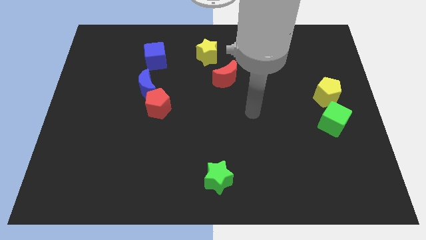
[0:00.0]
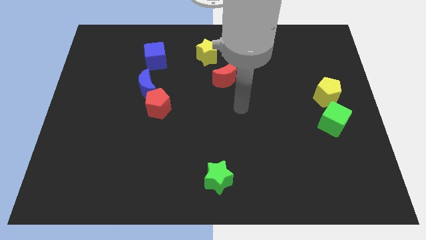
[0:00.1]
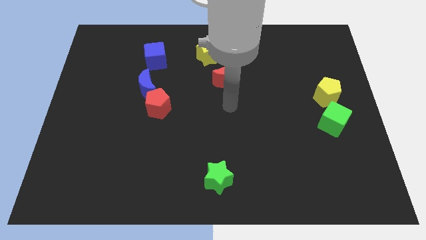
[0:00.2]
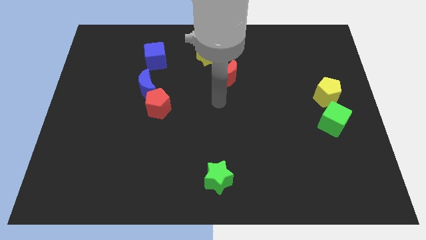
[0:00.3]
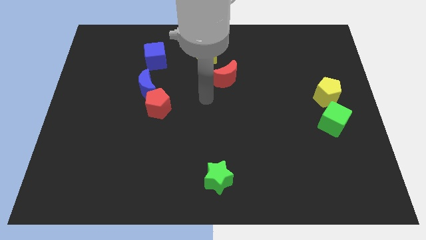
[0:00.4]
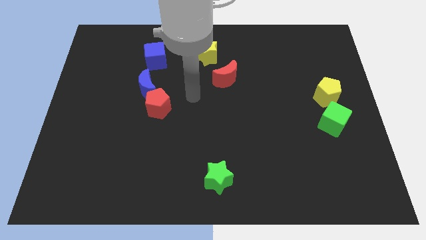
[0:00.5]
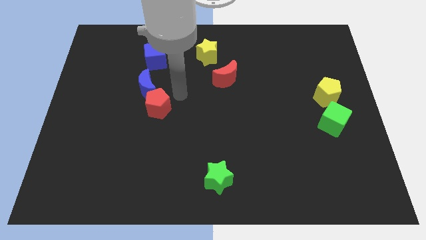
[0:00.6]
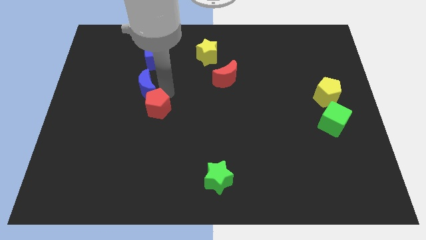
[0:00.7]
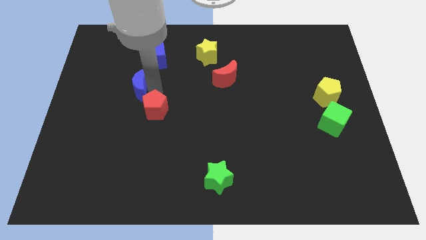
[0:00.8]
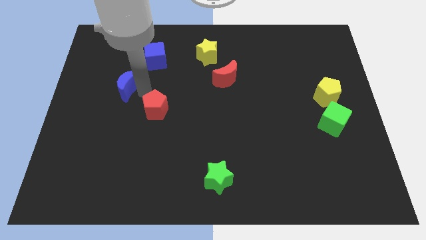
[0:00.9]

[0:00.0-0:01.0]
separate the red pentagon from the blue moon

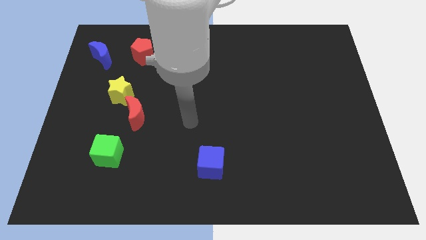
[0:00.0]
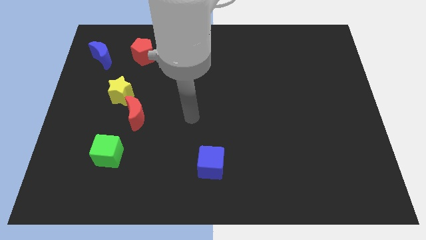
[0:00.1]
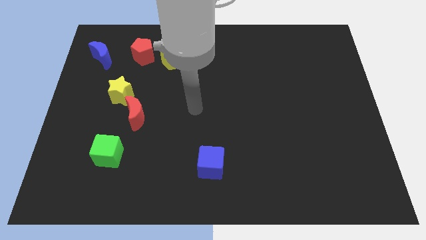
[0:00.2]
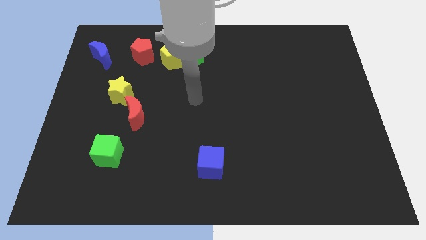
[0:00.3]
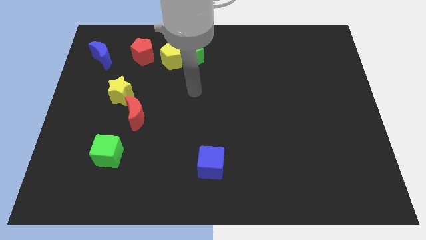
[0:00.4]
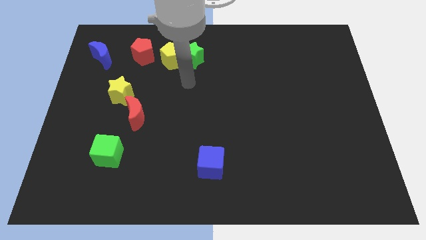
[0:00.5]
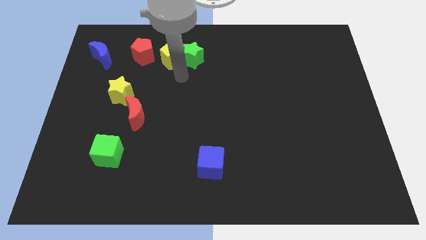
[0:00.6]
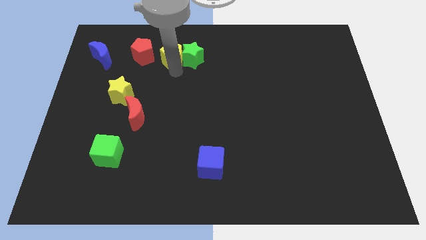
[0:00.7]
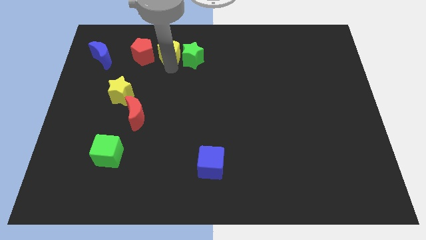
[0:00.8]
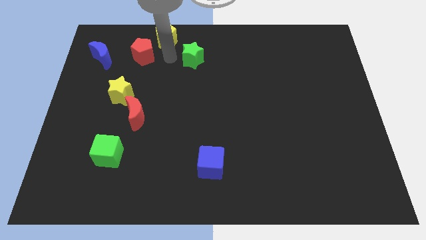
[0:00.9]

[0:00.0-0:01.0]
move the green star away from the yellow pentagon

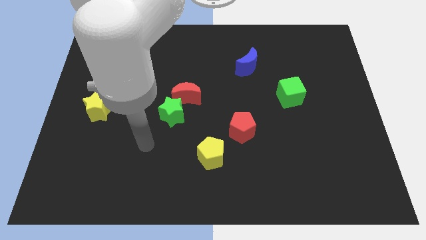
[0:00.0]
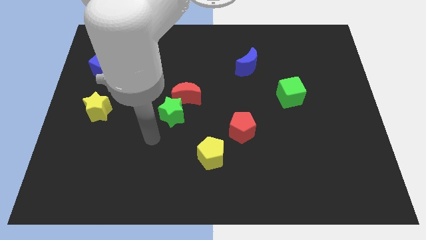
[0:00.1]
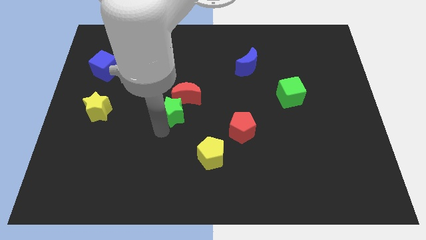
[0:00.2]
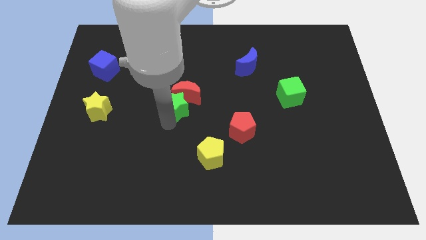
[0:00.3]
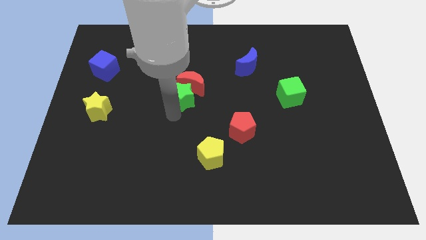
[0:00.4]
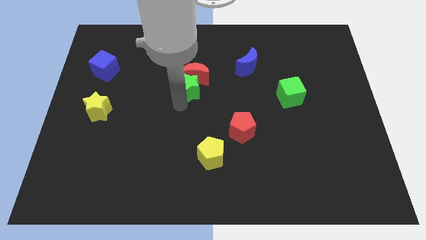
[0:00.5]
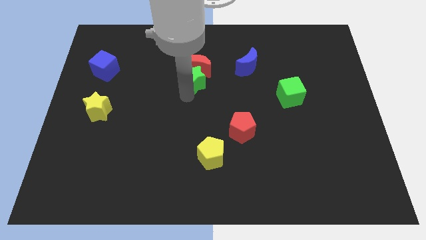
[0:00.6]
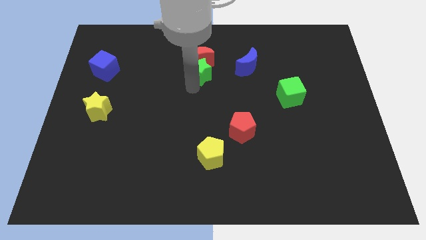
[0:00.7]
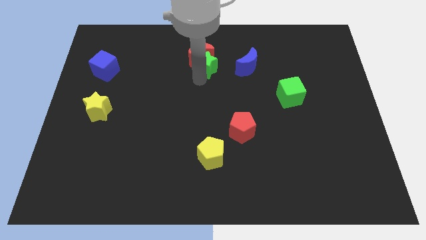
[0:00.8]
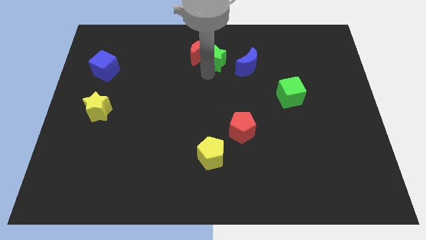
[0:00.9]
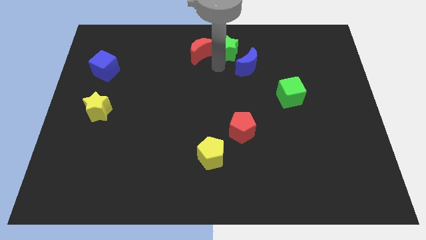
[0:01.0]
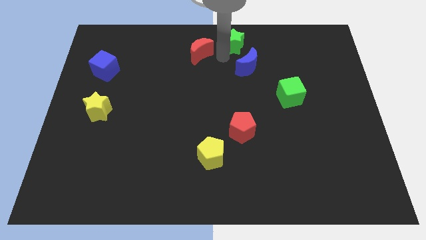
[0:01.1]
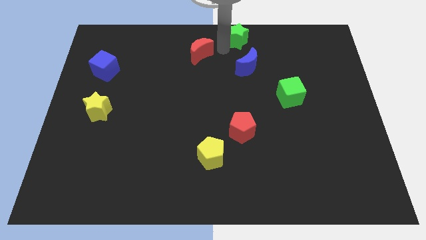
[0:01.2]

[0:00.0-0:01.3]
pull the red moon apart from the green star

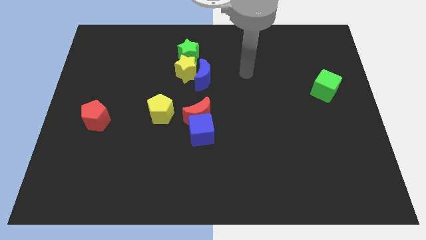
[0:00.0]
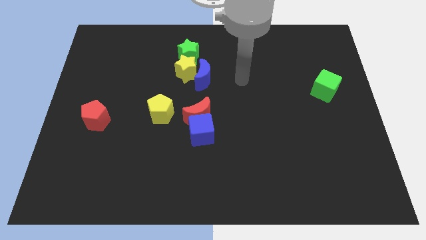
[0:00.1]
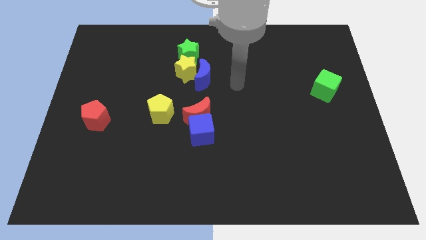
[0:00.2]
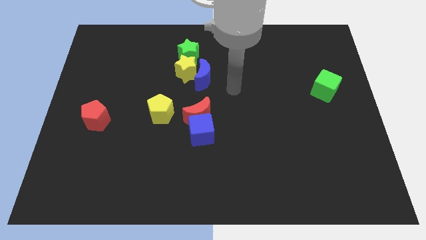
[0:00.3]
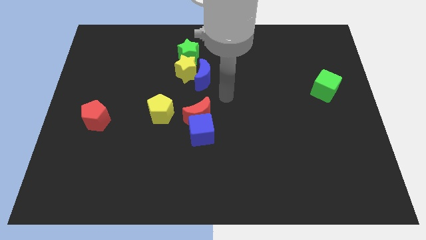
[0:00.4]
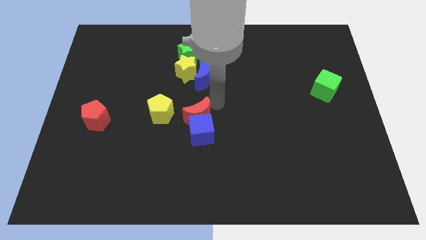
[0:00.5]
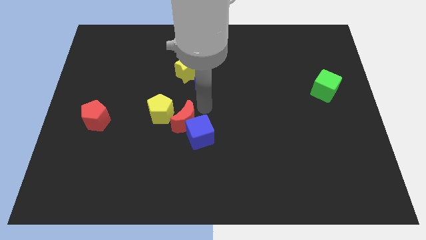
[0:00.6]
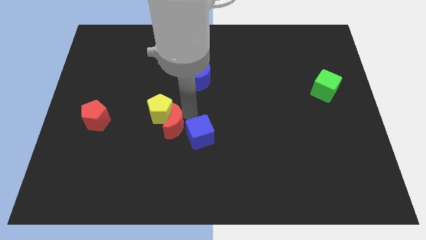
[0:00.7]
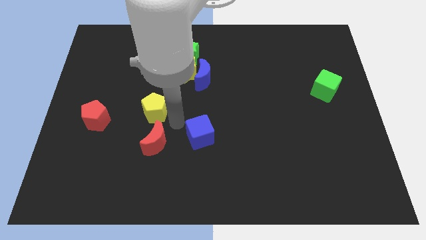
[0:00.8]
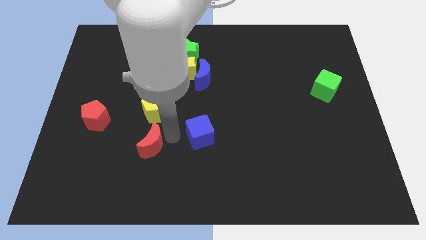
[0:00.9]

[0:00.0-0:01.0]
pull the blue cube apart from the red moon

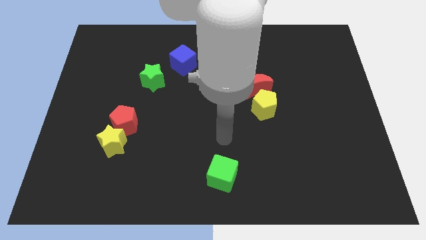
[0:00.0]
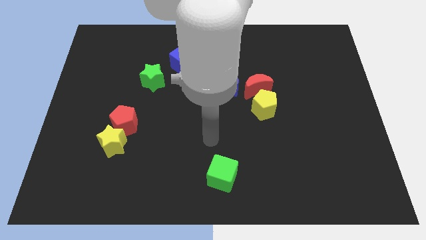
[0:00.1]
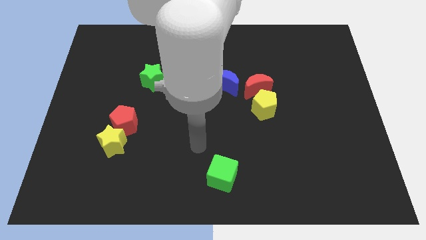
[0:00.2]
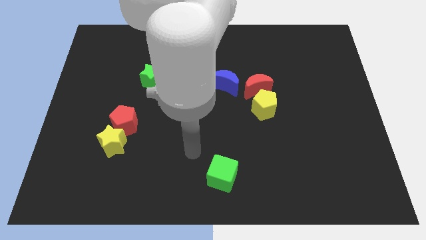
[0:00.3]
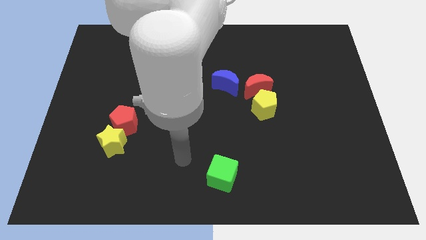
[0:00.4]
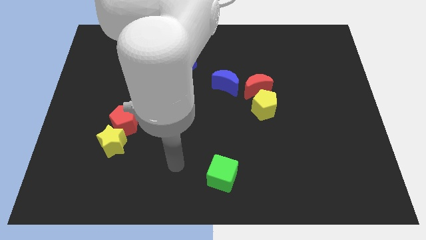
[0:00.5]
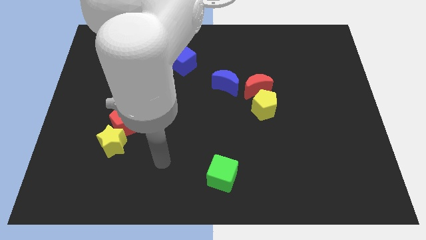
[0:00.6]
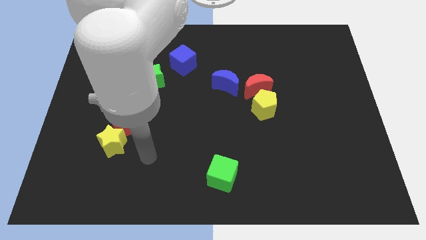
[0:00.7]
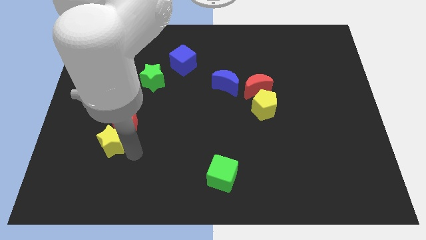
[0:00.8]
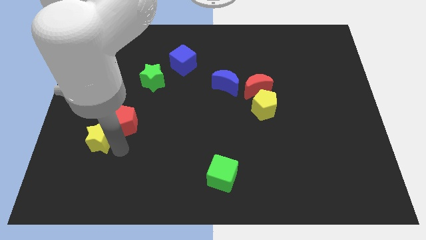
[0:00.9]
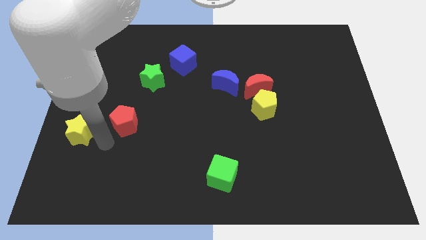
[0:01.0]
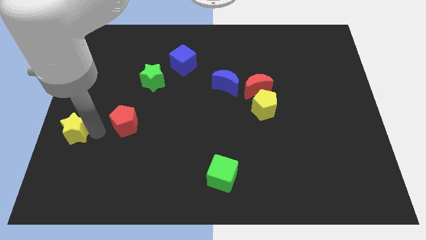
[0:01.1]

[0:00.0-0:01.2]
separate the red pentagon from the yellow star

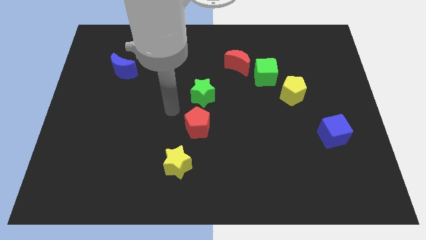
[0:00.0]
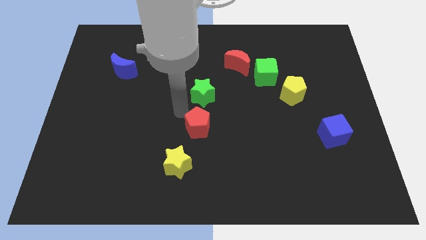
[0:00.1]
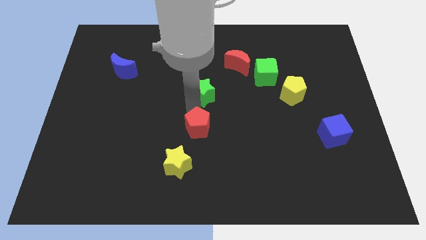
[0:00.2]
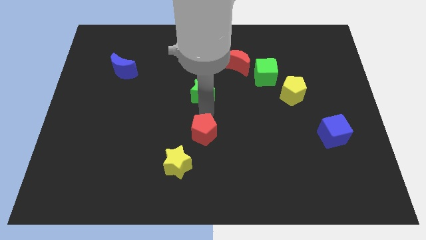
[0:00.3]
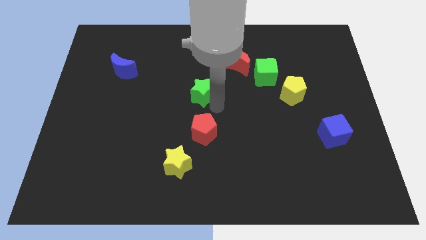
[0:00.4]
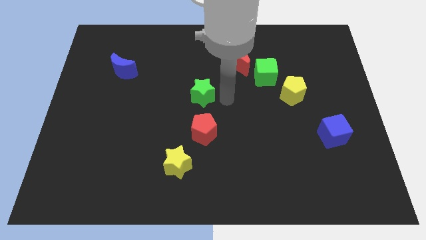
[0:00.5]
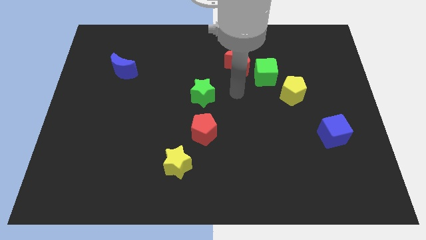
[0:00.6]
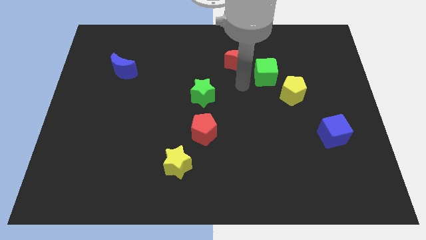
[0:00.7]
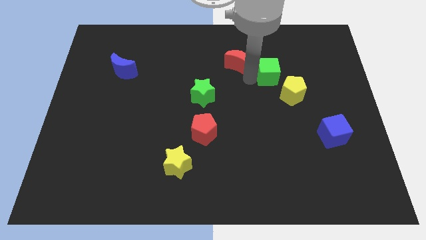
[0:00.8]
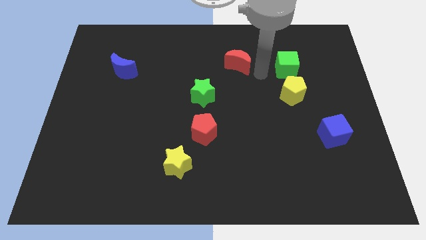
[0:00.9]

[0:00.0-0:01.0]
separate the red moon from the green cube

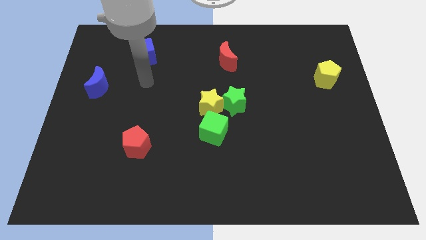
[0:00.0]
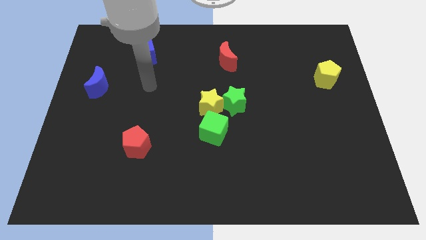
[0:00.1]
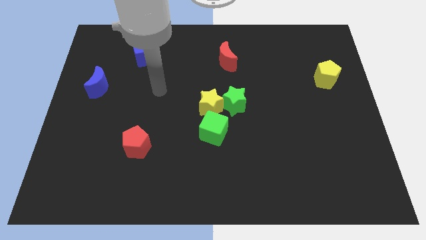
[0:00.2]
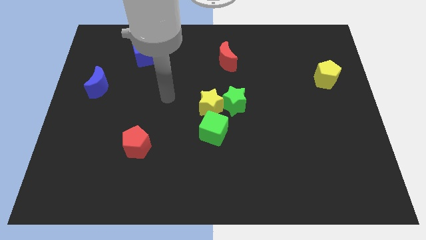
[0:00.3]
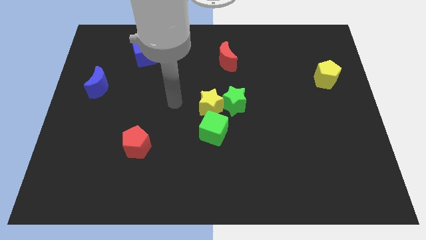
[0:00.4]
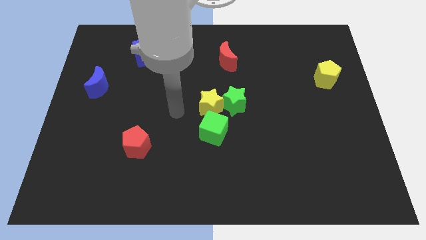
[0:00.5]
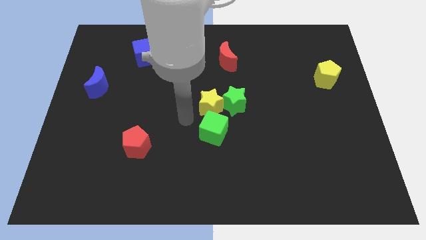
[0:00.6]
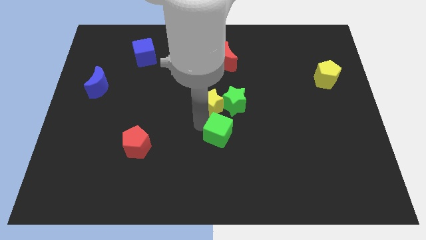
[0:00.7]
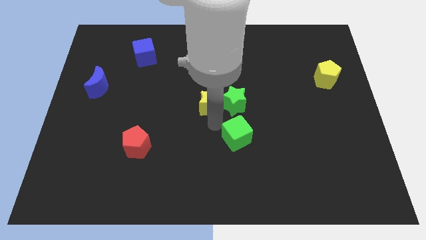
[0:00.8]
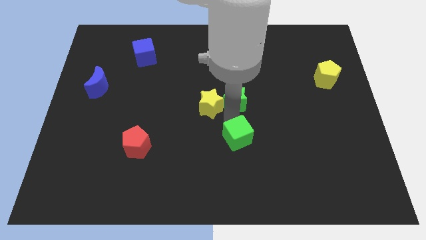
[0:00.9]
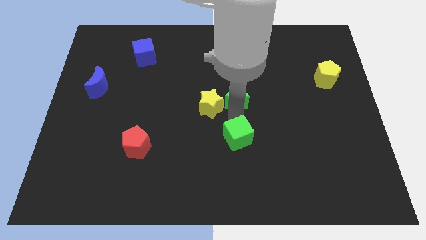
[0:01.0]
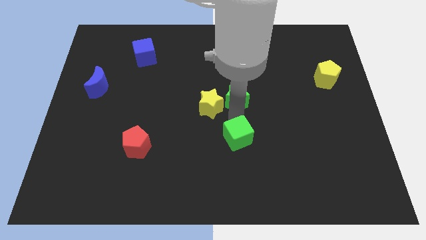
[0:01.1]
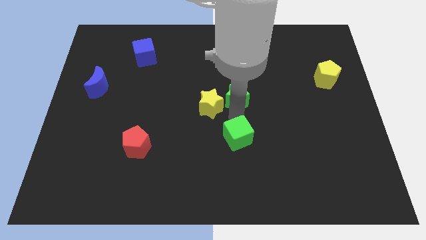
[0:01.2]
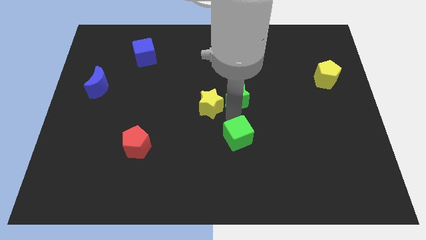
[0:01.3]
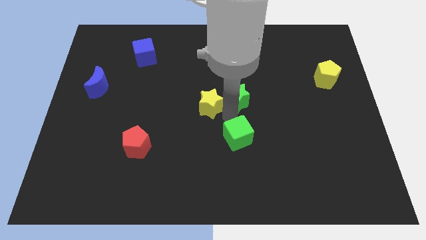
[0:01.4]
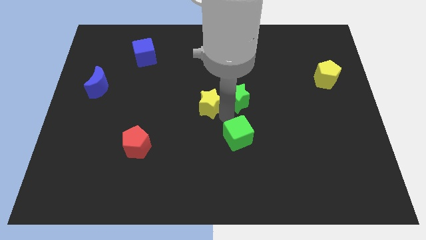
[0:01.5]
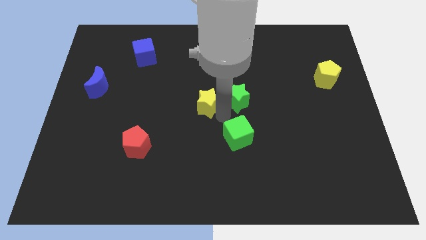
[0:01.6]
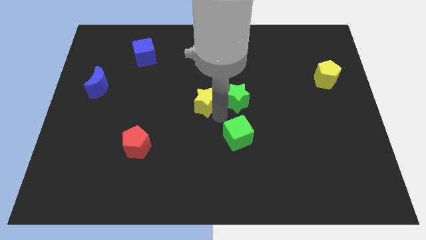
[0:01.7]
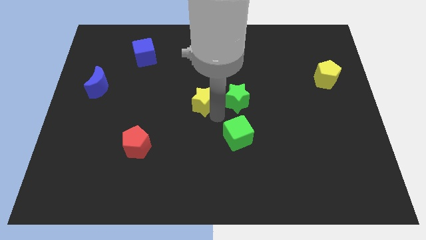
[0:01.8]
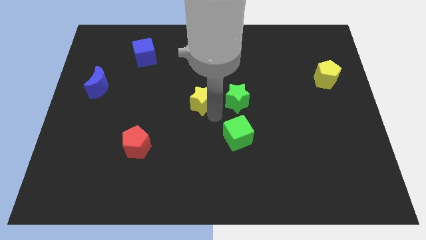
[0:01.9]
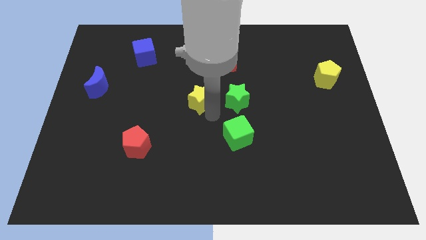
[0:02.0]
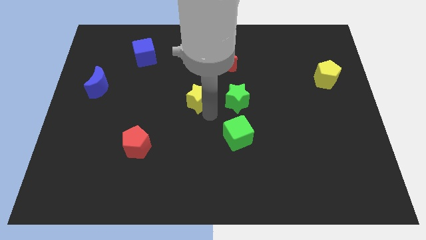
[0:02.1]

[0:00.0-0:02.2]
move the yellow star away from the green star and green cube

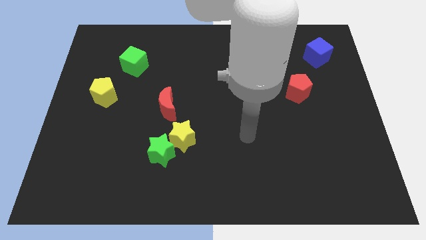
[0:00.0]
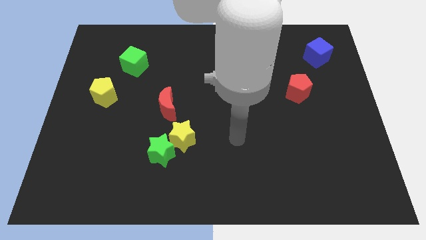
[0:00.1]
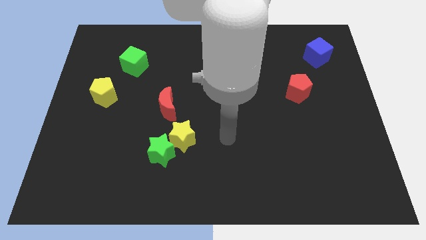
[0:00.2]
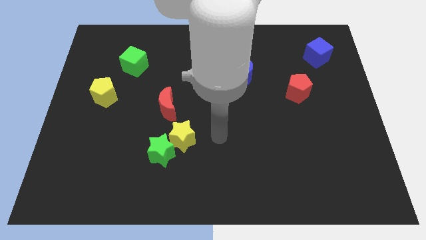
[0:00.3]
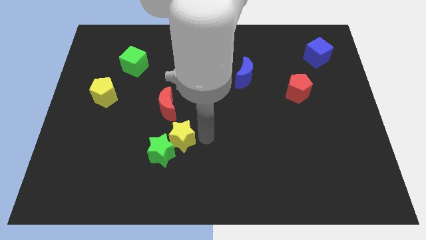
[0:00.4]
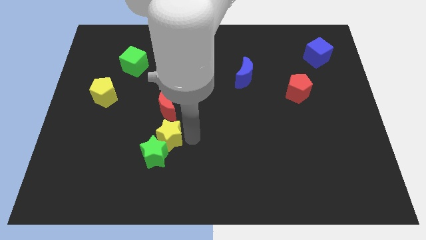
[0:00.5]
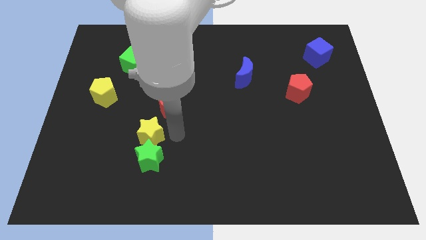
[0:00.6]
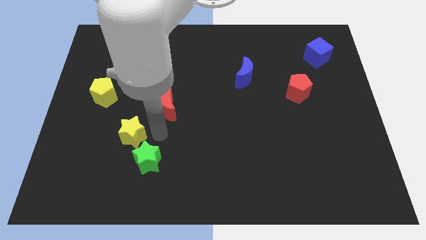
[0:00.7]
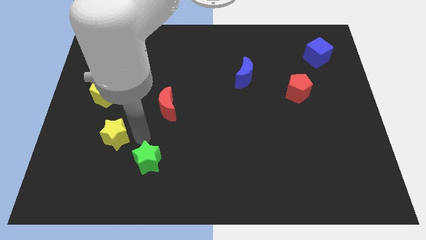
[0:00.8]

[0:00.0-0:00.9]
pull the green star apart from the yellow star
